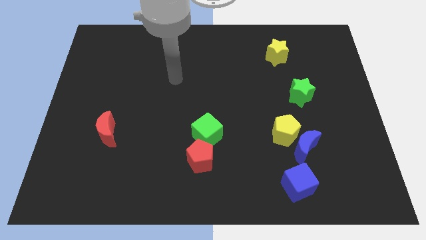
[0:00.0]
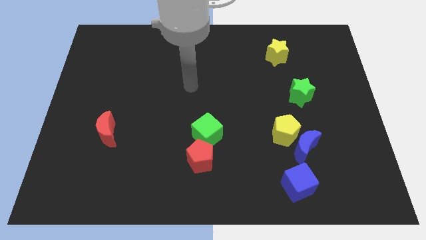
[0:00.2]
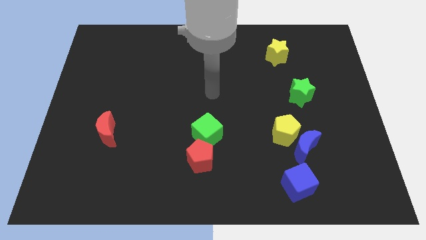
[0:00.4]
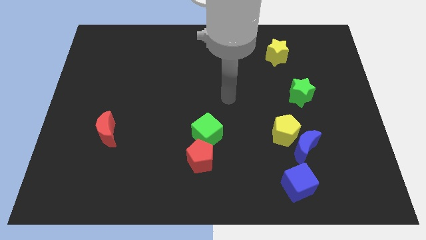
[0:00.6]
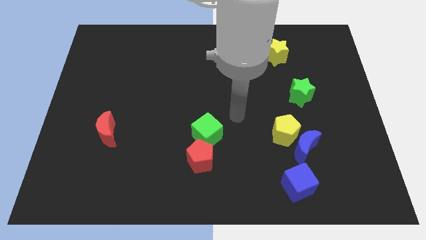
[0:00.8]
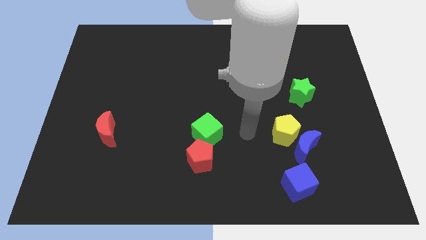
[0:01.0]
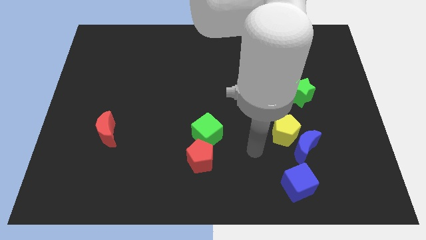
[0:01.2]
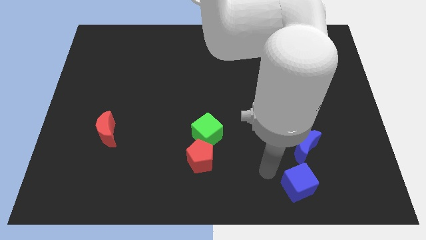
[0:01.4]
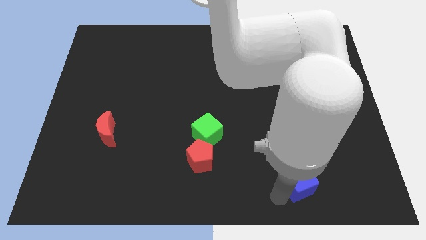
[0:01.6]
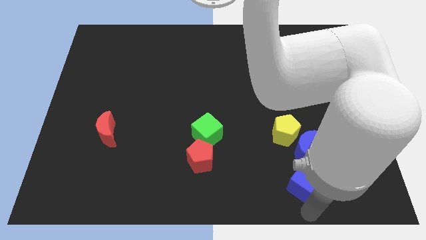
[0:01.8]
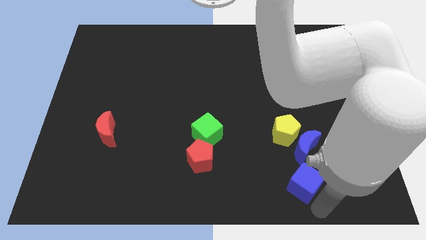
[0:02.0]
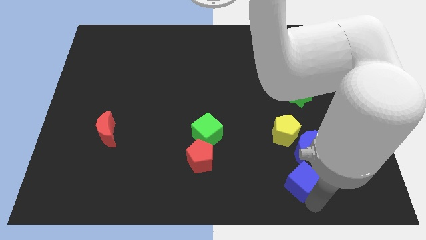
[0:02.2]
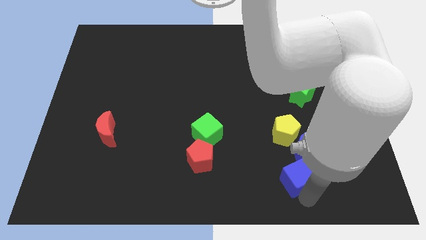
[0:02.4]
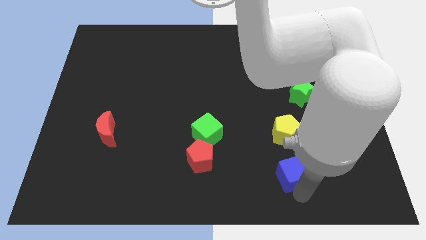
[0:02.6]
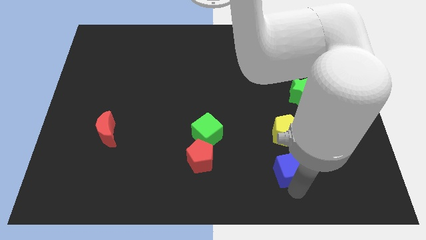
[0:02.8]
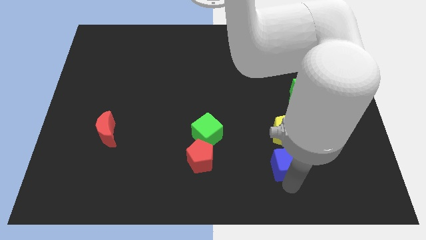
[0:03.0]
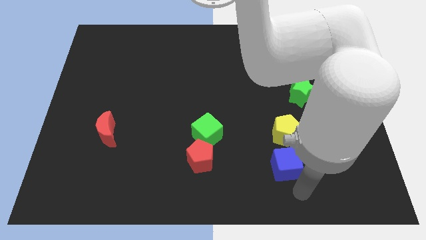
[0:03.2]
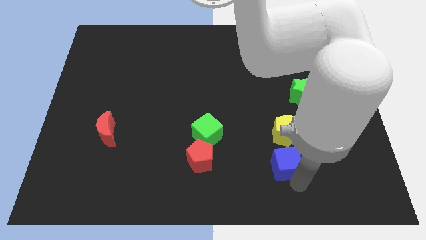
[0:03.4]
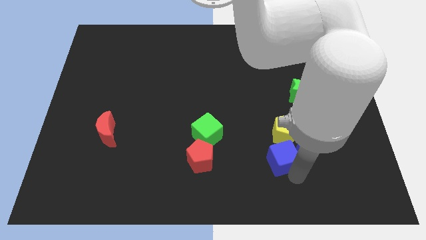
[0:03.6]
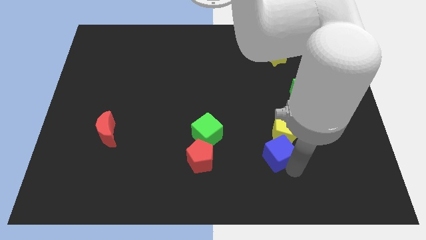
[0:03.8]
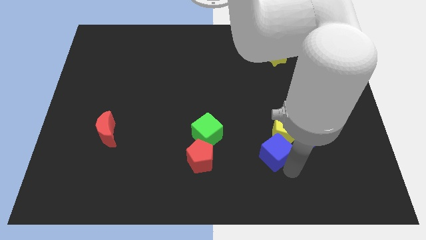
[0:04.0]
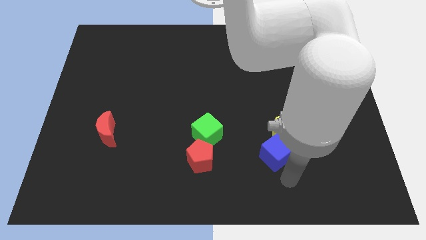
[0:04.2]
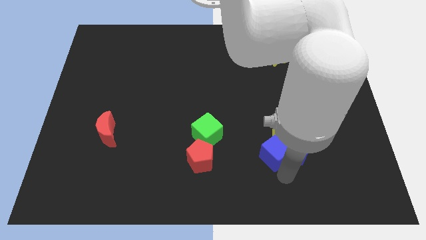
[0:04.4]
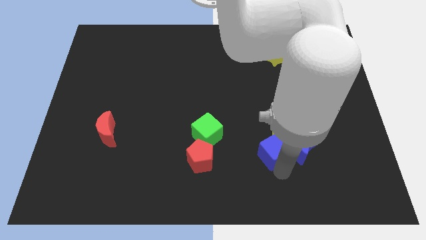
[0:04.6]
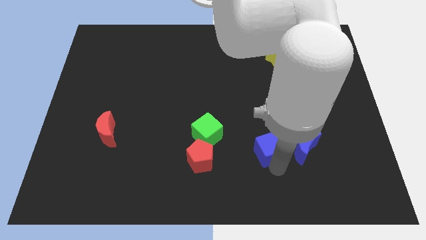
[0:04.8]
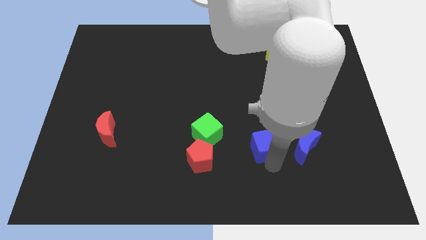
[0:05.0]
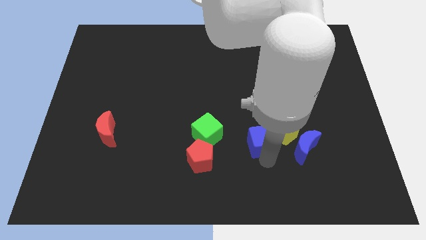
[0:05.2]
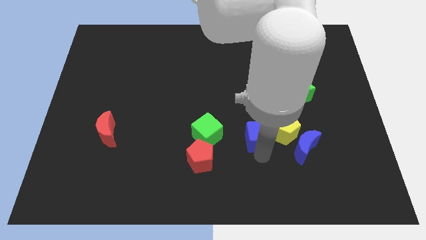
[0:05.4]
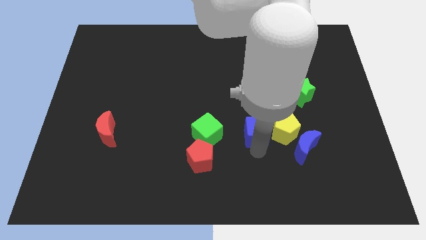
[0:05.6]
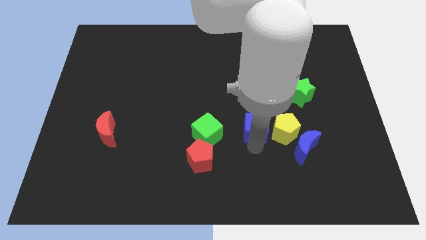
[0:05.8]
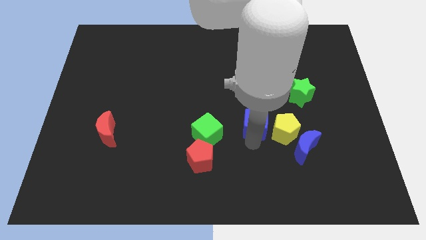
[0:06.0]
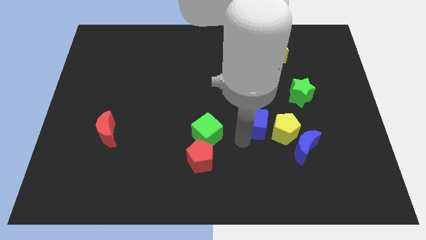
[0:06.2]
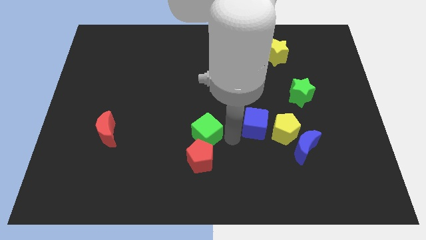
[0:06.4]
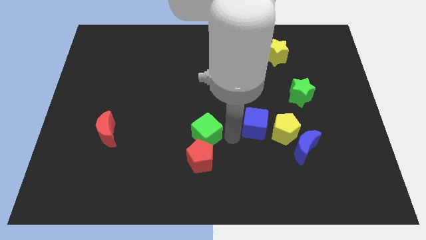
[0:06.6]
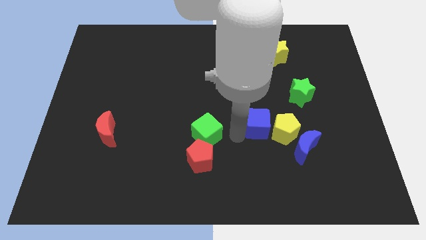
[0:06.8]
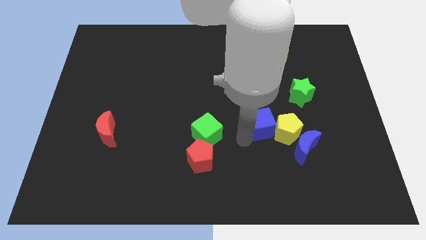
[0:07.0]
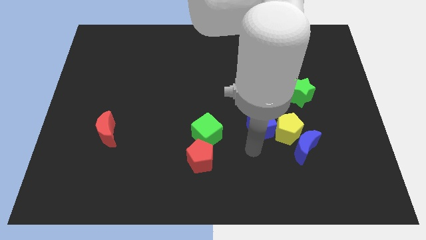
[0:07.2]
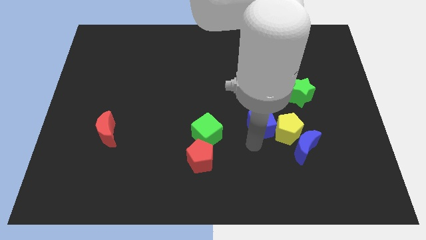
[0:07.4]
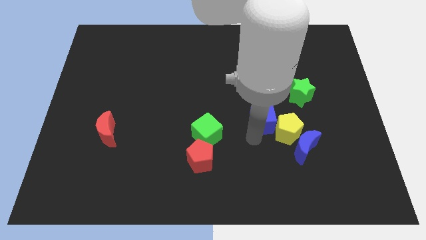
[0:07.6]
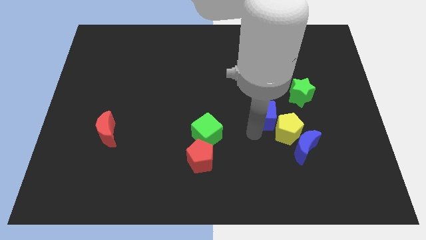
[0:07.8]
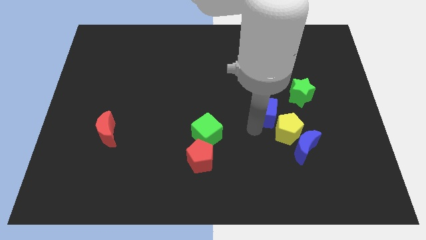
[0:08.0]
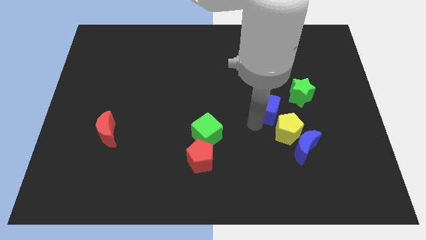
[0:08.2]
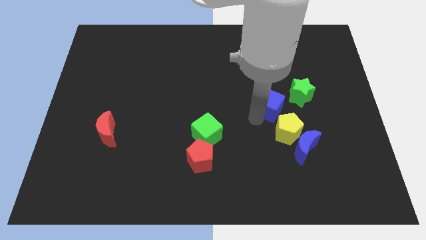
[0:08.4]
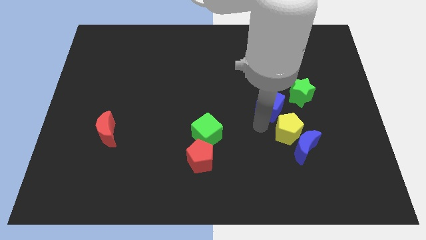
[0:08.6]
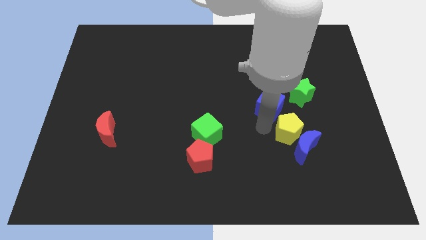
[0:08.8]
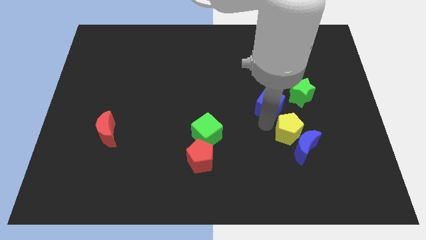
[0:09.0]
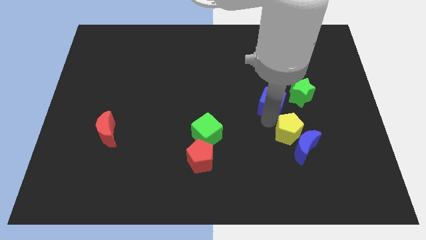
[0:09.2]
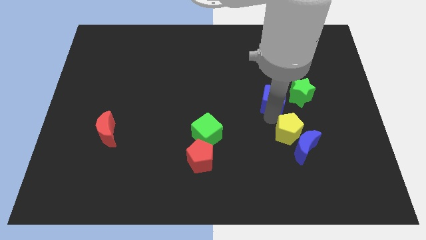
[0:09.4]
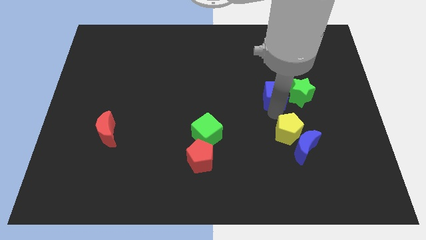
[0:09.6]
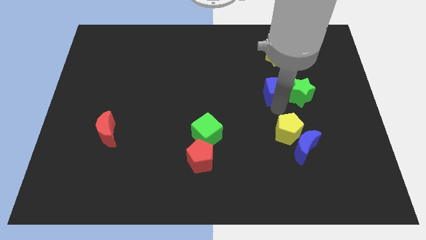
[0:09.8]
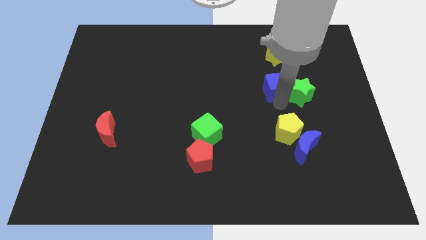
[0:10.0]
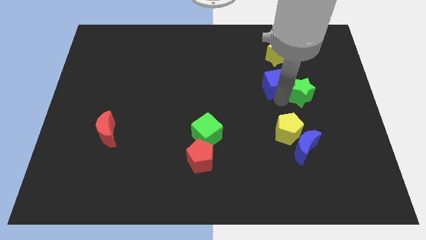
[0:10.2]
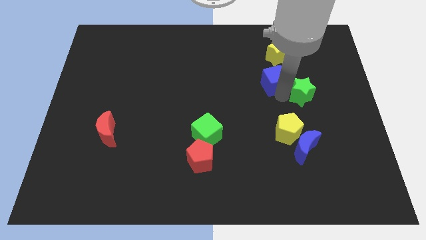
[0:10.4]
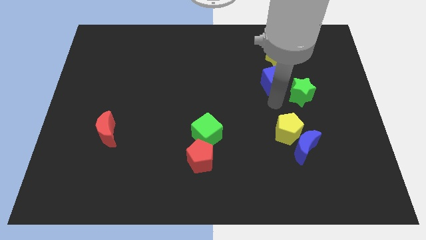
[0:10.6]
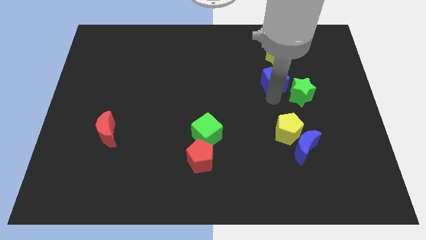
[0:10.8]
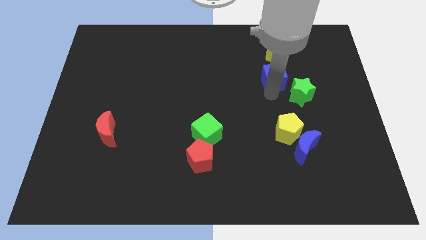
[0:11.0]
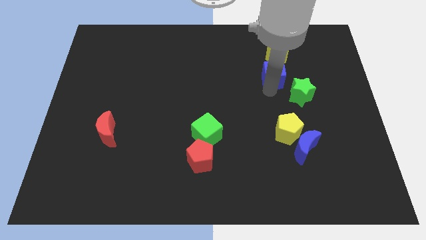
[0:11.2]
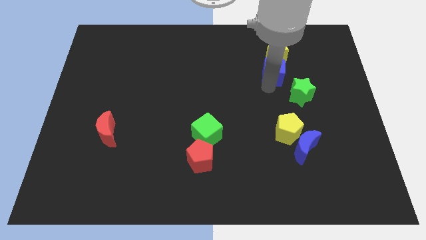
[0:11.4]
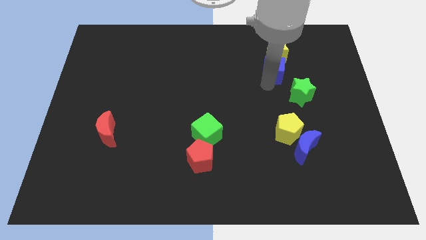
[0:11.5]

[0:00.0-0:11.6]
put the blue cube towards the yellow star

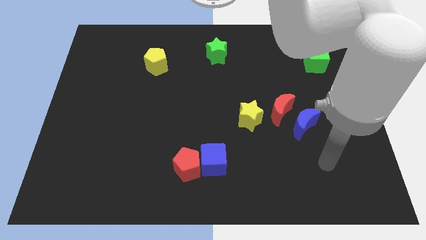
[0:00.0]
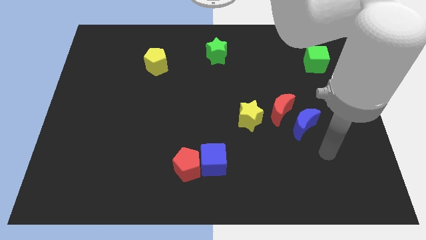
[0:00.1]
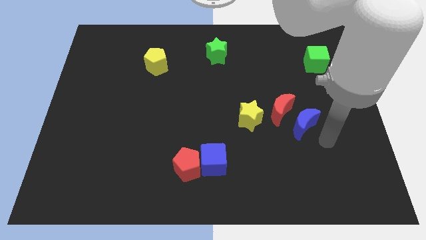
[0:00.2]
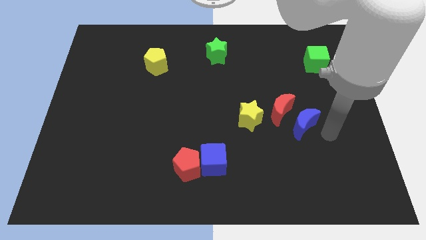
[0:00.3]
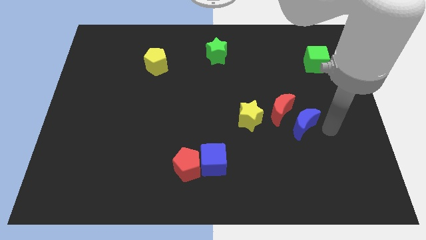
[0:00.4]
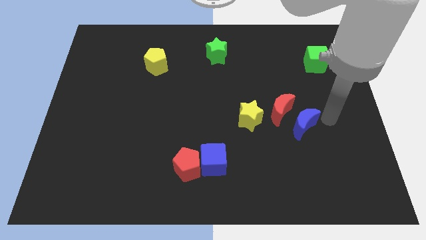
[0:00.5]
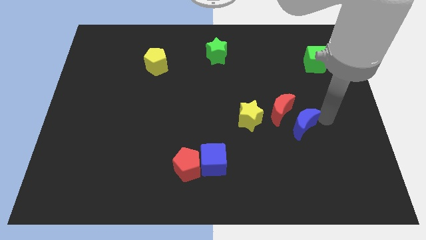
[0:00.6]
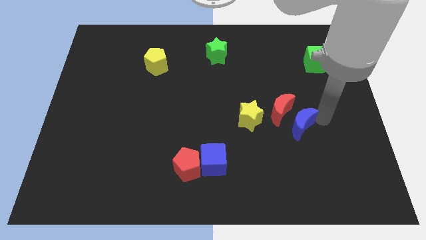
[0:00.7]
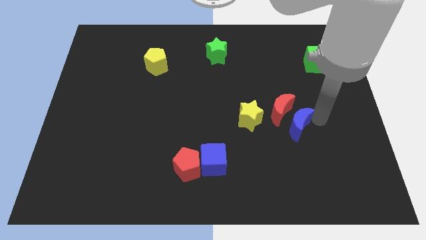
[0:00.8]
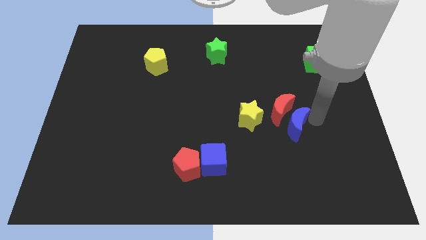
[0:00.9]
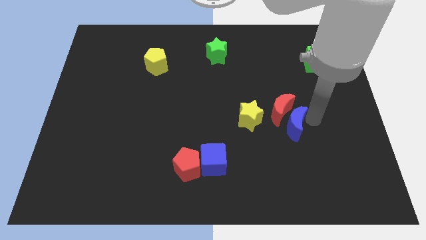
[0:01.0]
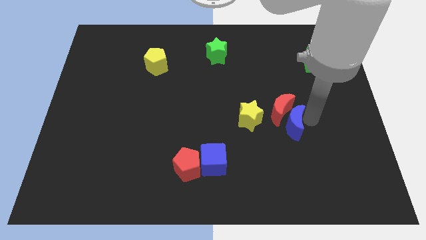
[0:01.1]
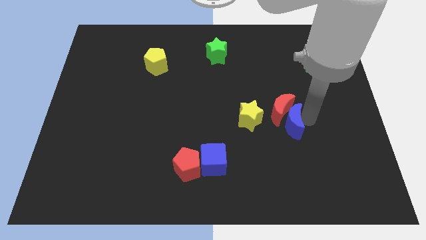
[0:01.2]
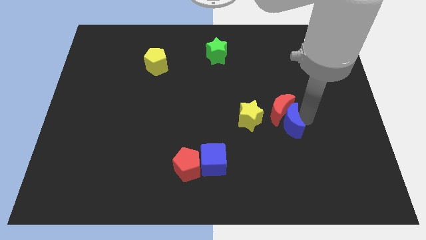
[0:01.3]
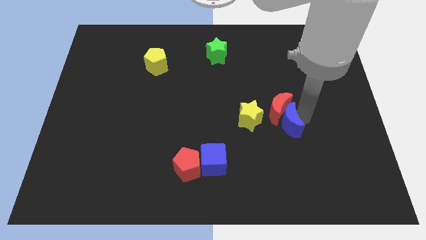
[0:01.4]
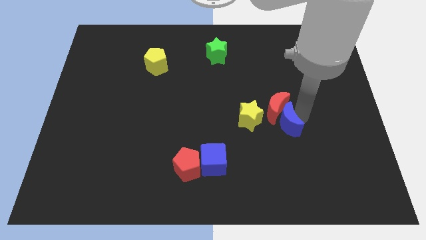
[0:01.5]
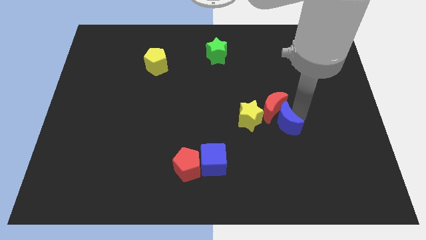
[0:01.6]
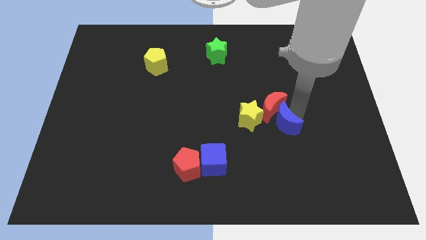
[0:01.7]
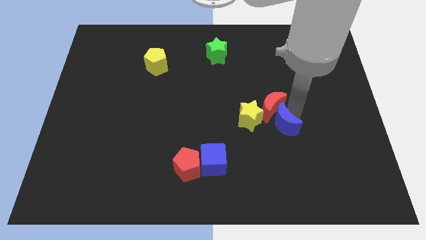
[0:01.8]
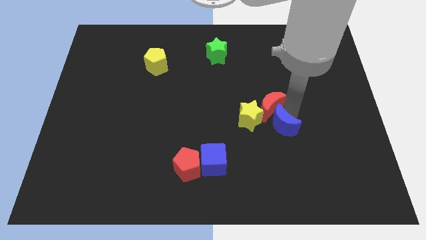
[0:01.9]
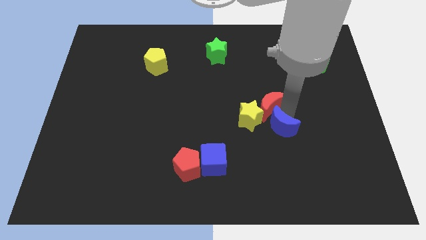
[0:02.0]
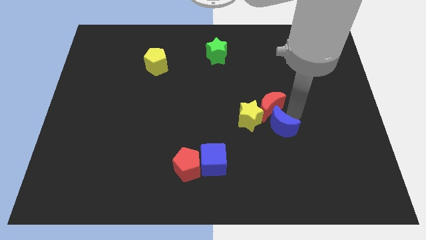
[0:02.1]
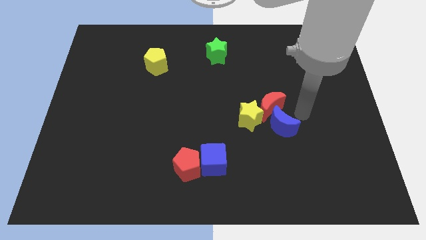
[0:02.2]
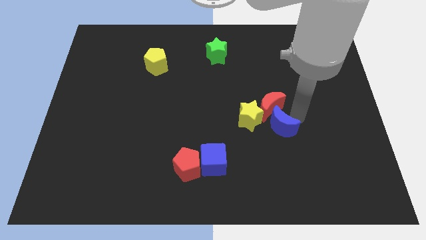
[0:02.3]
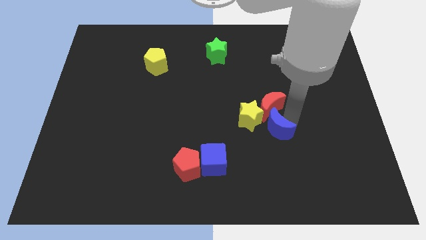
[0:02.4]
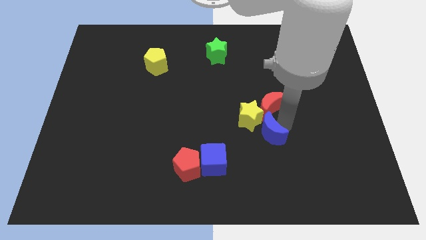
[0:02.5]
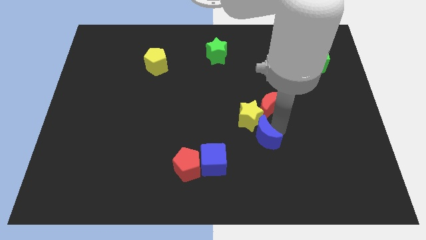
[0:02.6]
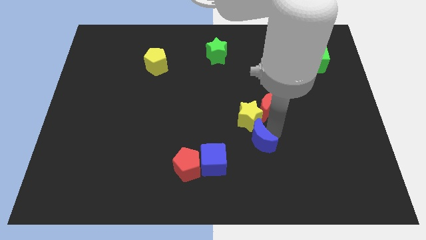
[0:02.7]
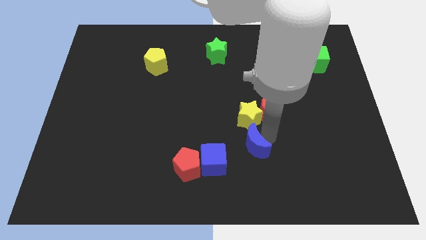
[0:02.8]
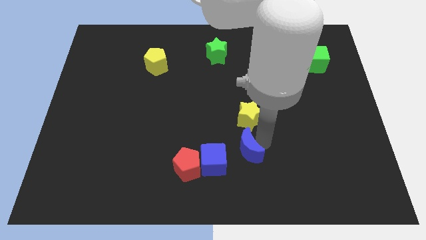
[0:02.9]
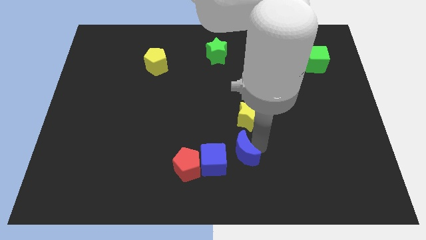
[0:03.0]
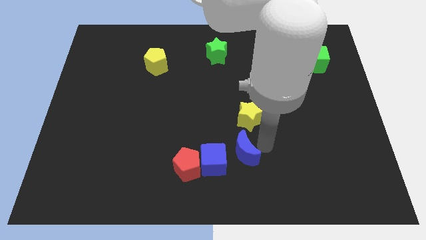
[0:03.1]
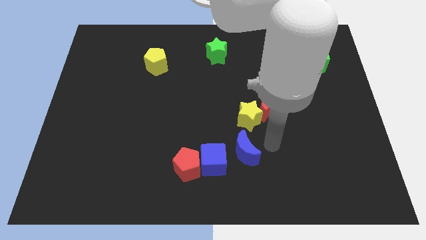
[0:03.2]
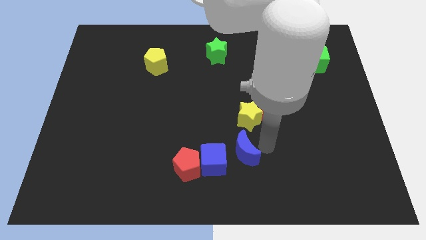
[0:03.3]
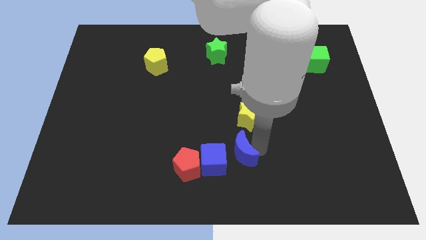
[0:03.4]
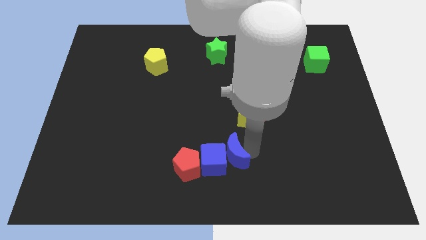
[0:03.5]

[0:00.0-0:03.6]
push the blue moon close to the blue cube
